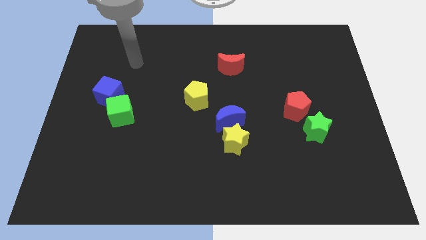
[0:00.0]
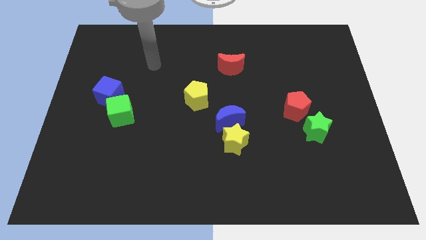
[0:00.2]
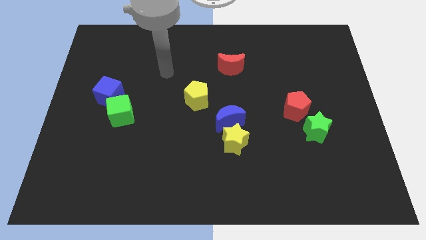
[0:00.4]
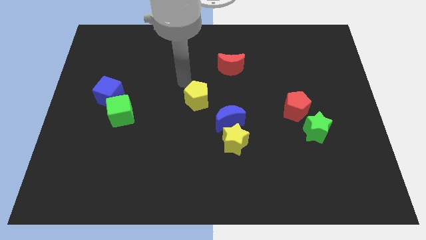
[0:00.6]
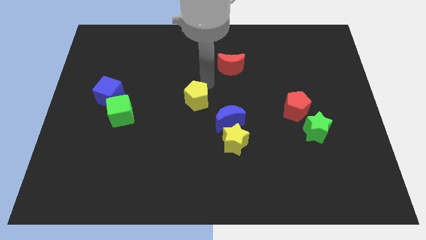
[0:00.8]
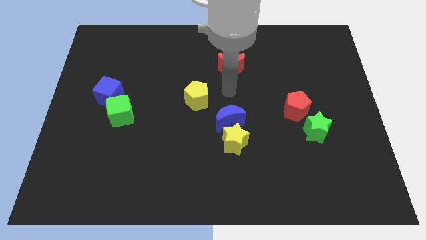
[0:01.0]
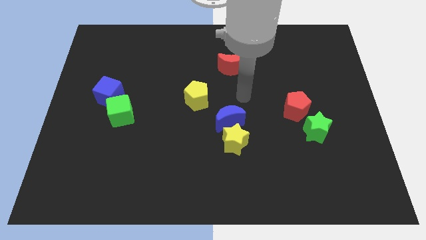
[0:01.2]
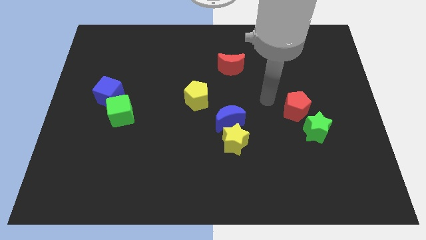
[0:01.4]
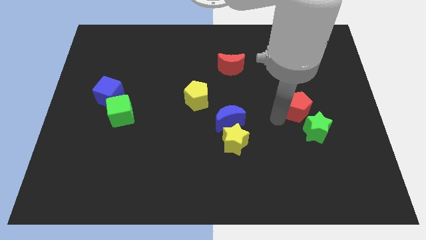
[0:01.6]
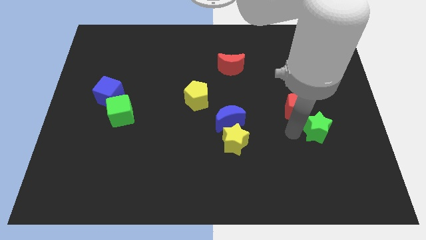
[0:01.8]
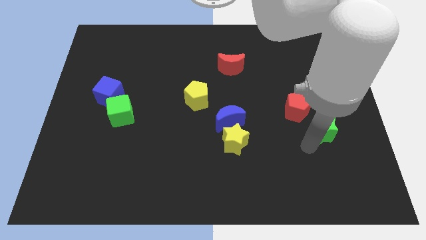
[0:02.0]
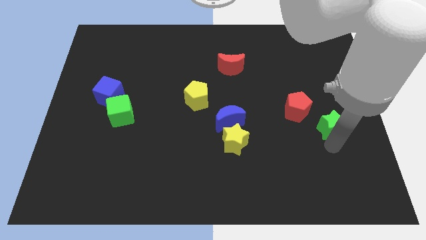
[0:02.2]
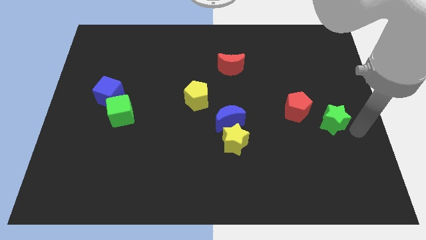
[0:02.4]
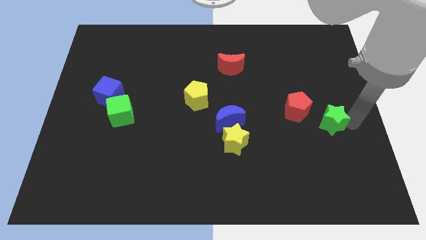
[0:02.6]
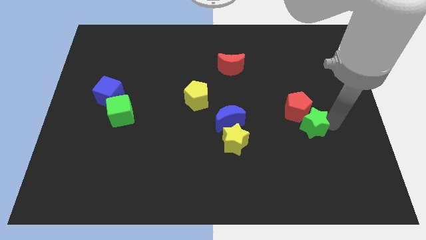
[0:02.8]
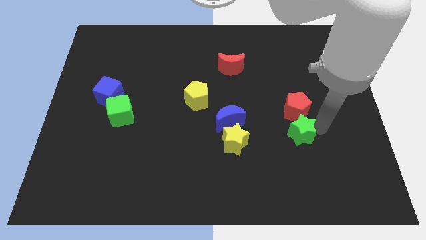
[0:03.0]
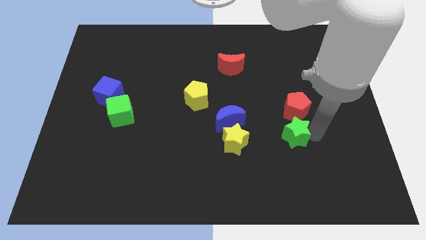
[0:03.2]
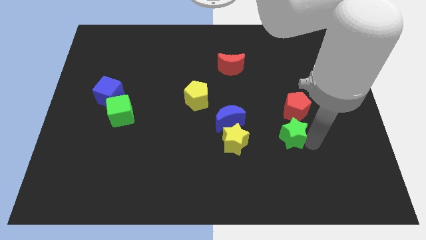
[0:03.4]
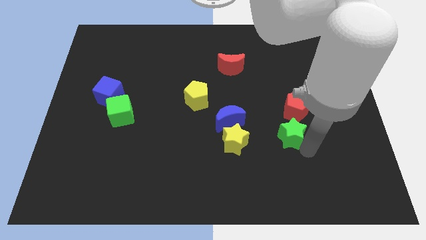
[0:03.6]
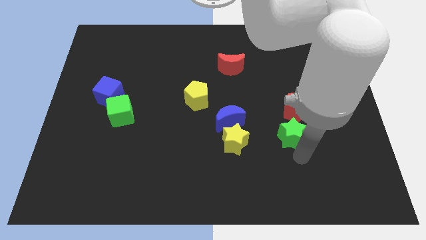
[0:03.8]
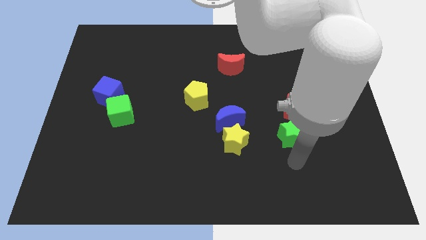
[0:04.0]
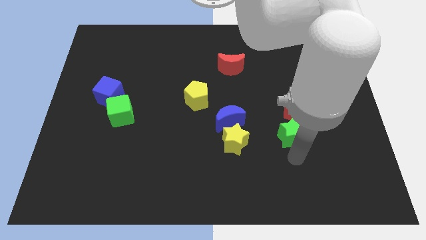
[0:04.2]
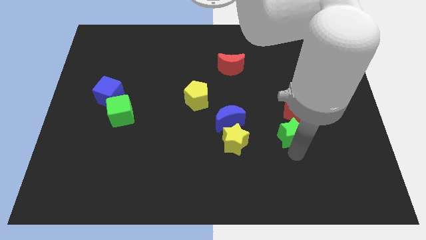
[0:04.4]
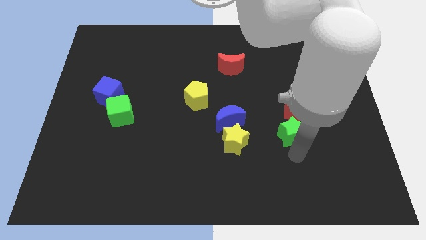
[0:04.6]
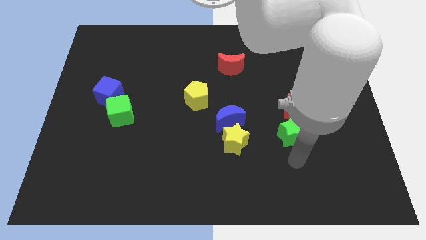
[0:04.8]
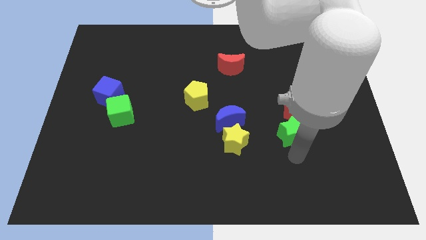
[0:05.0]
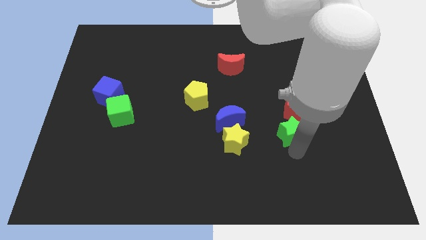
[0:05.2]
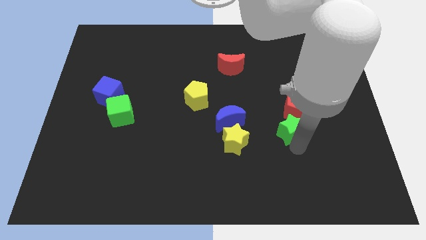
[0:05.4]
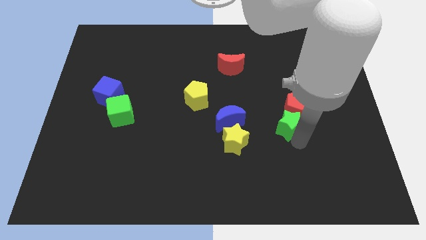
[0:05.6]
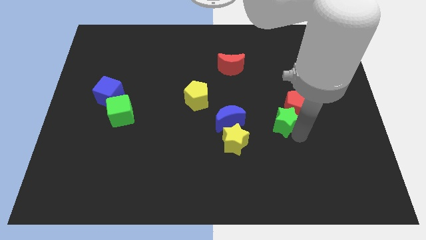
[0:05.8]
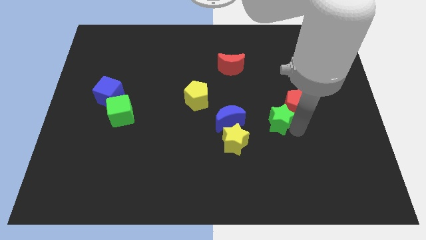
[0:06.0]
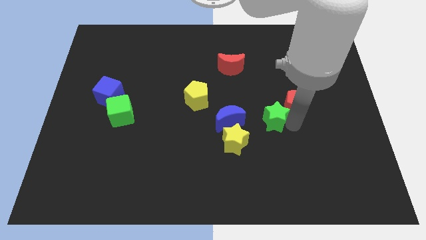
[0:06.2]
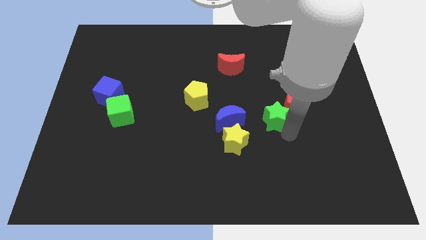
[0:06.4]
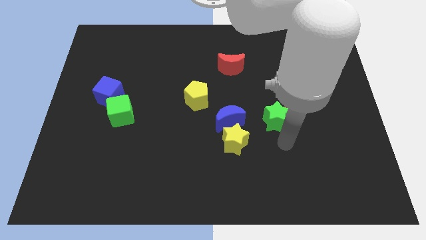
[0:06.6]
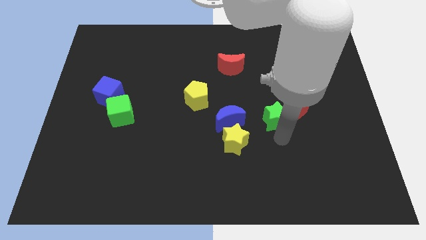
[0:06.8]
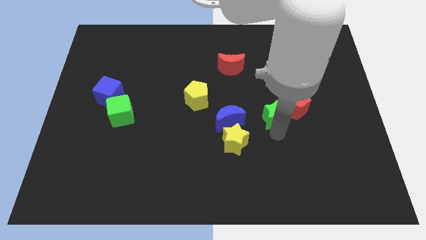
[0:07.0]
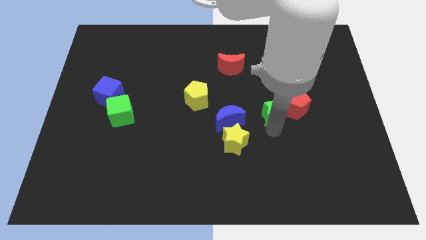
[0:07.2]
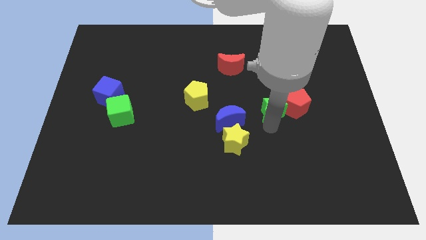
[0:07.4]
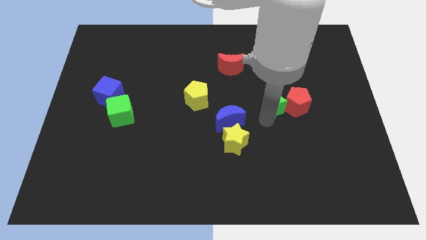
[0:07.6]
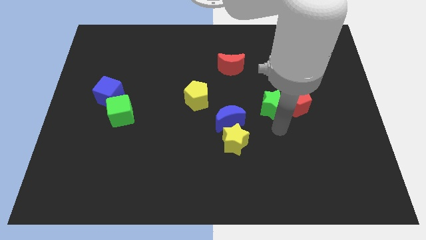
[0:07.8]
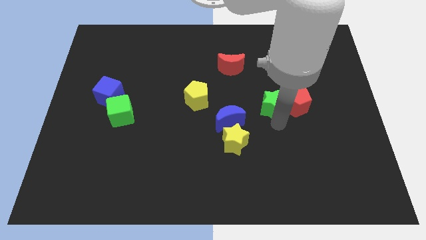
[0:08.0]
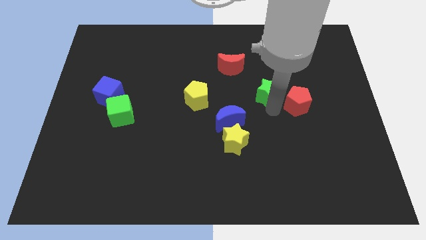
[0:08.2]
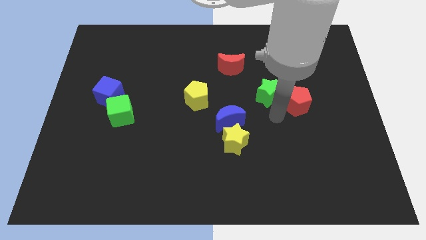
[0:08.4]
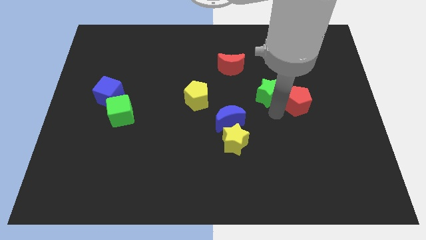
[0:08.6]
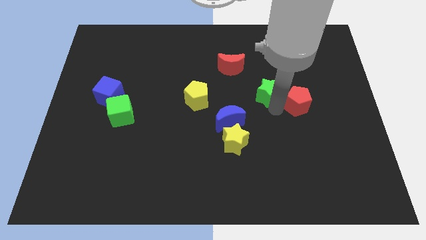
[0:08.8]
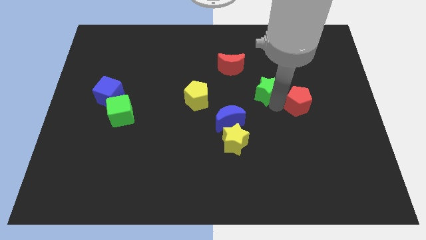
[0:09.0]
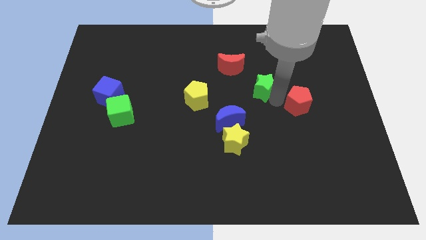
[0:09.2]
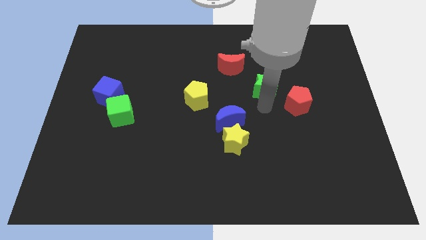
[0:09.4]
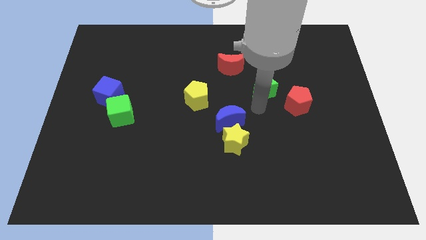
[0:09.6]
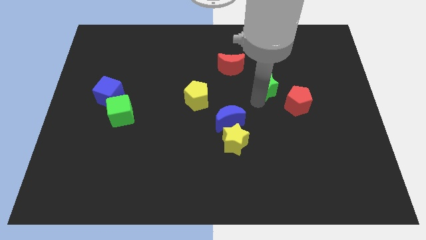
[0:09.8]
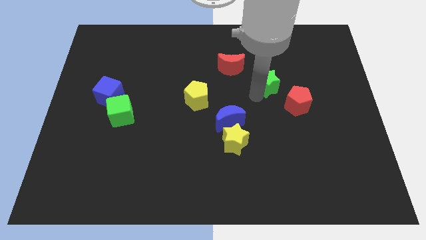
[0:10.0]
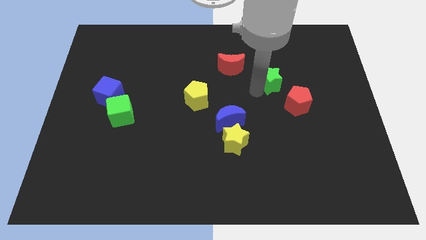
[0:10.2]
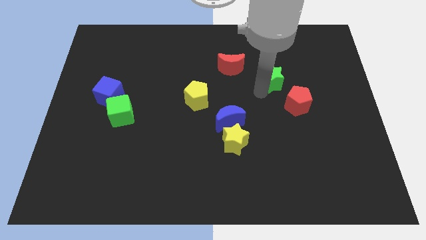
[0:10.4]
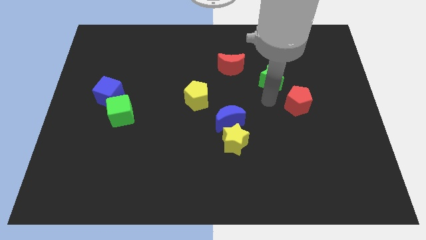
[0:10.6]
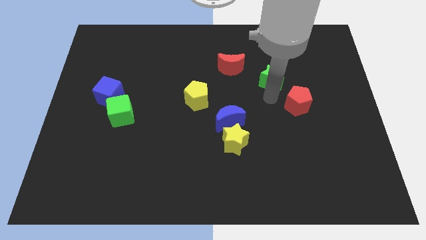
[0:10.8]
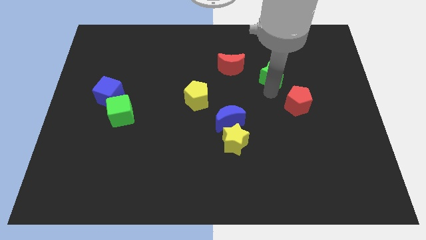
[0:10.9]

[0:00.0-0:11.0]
move the green star to the right of the red moon

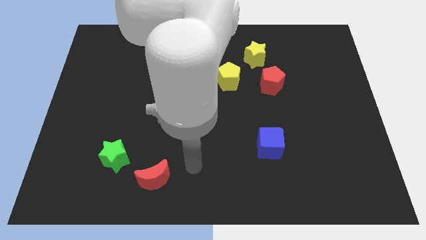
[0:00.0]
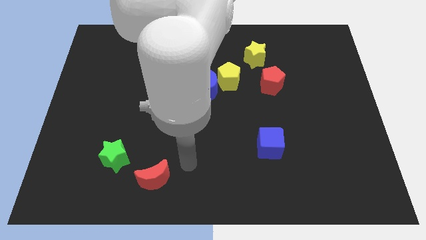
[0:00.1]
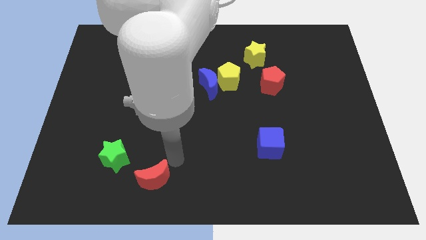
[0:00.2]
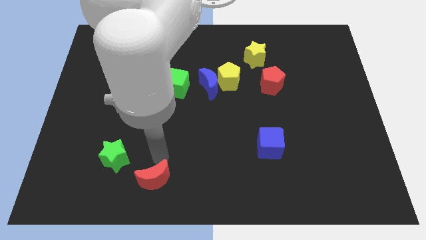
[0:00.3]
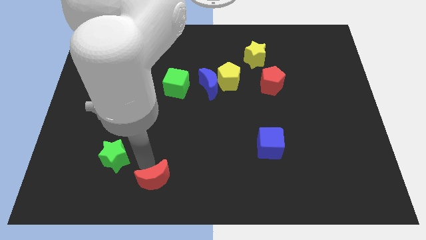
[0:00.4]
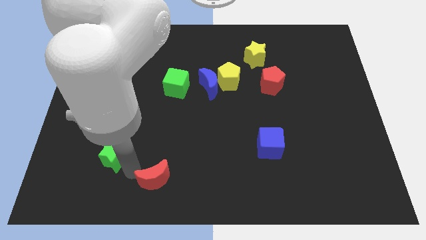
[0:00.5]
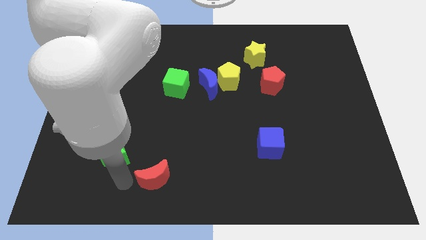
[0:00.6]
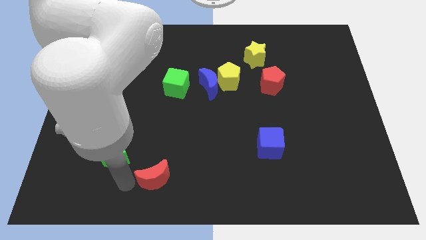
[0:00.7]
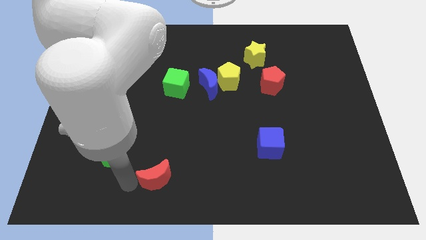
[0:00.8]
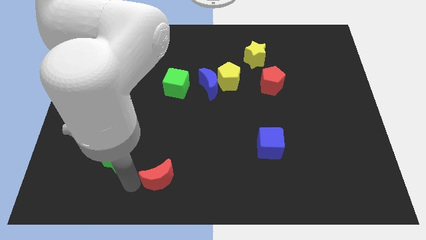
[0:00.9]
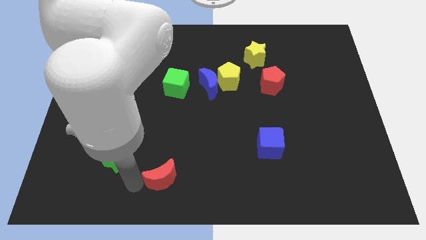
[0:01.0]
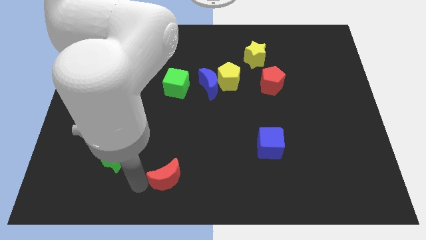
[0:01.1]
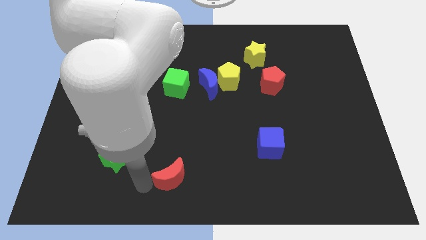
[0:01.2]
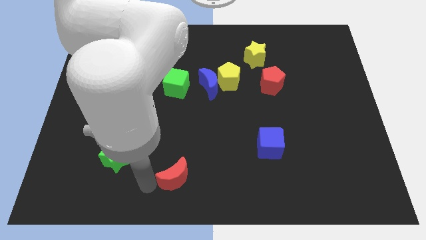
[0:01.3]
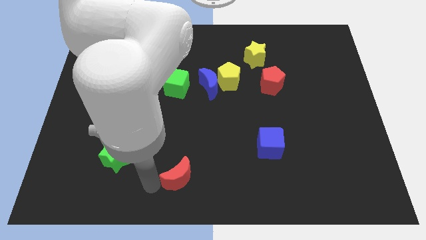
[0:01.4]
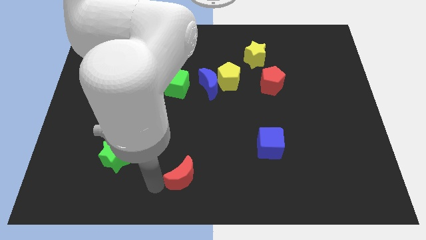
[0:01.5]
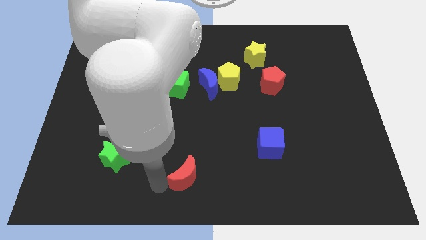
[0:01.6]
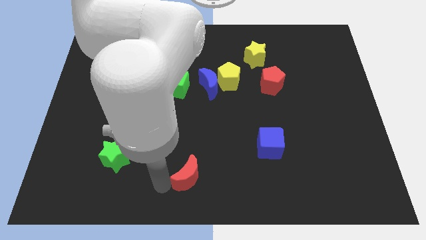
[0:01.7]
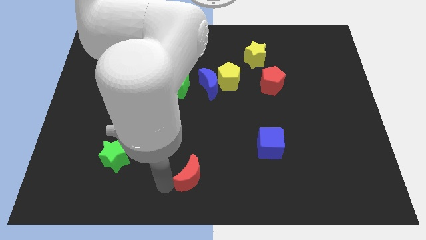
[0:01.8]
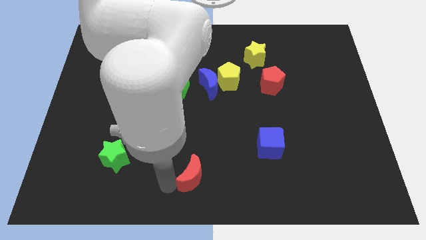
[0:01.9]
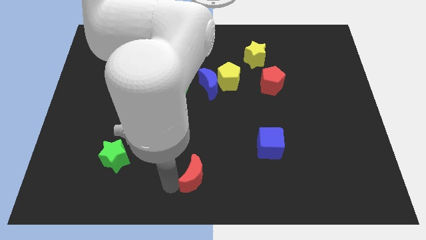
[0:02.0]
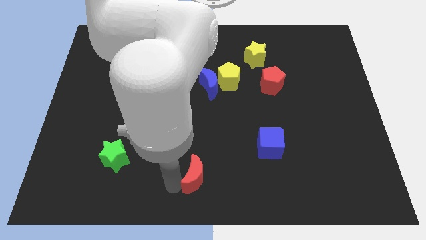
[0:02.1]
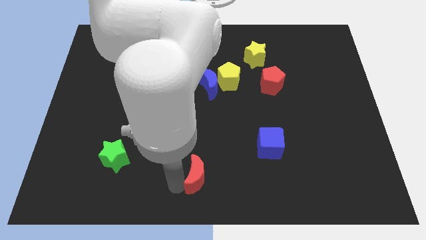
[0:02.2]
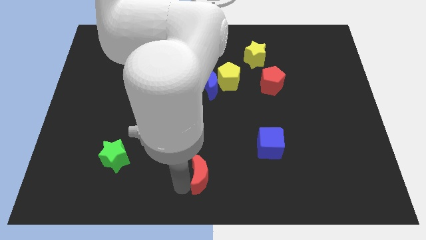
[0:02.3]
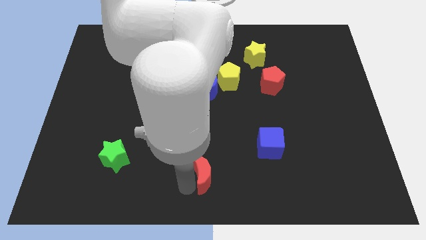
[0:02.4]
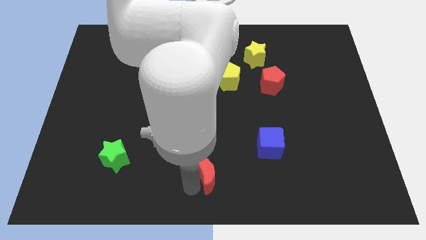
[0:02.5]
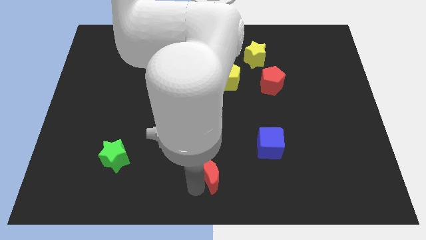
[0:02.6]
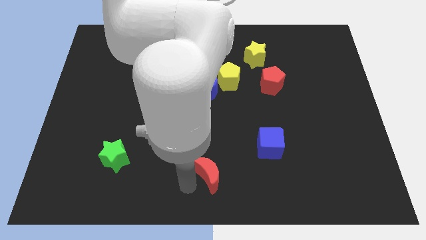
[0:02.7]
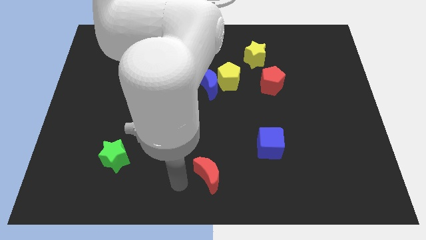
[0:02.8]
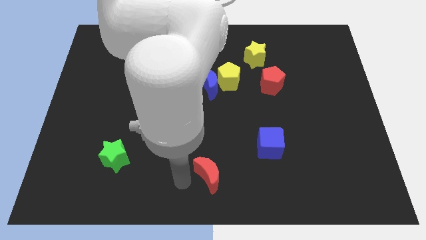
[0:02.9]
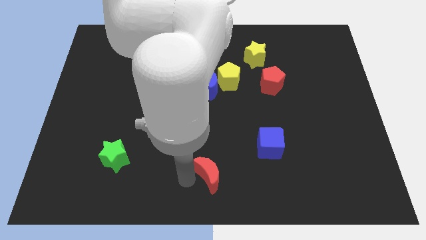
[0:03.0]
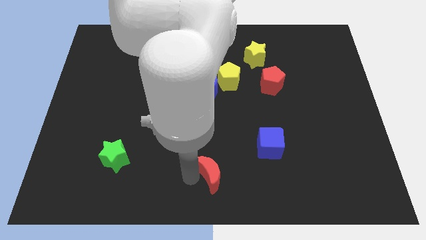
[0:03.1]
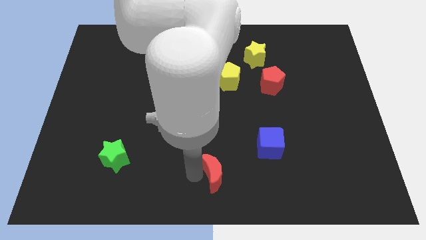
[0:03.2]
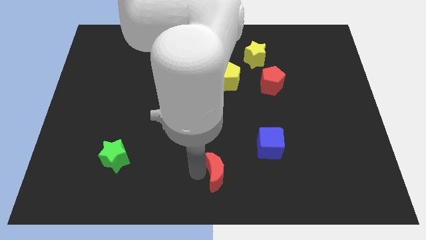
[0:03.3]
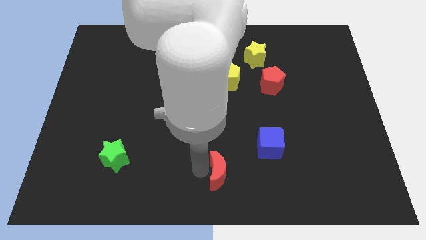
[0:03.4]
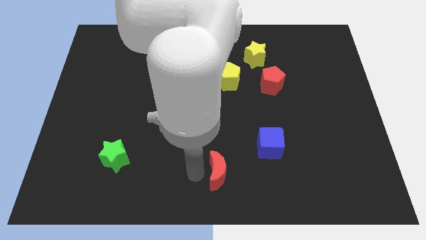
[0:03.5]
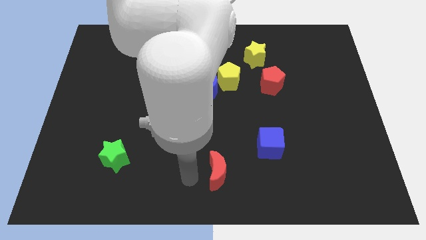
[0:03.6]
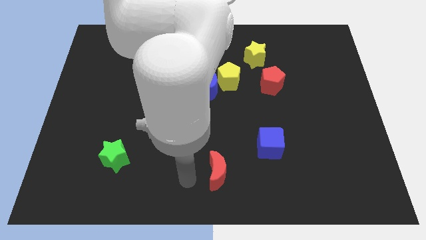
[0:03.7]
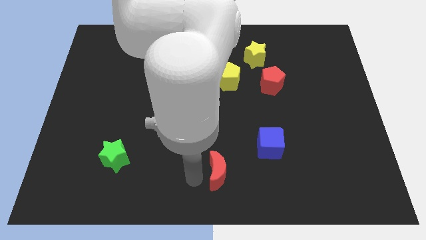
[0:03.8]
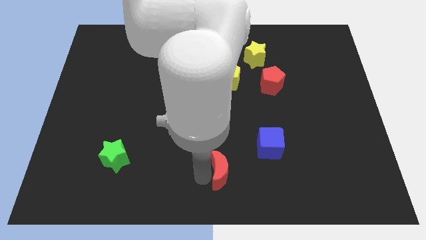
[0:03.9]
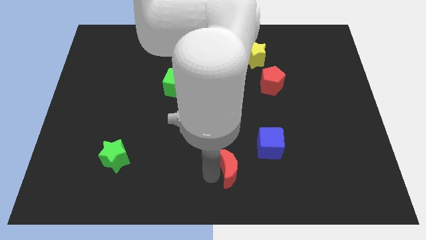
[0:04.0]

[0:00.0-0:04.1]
push the red moon to the bottom left of the blue cube
